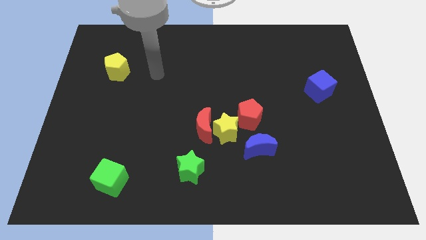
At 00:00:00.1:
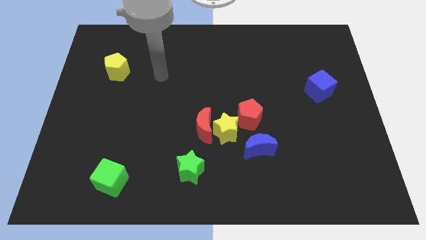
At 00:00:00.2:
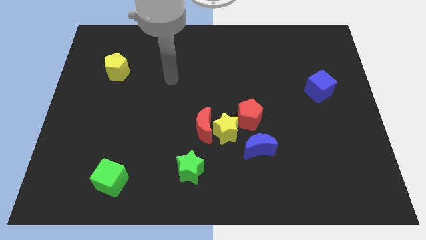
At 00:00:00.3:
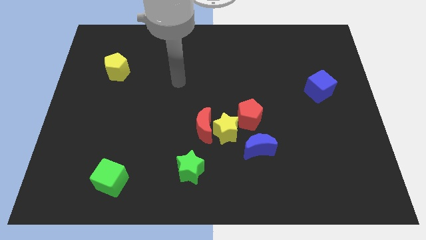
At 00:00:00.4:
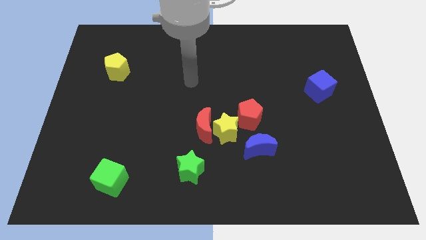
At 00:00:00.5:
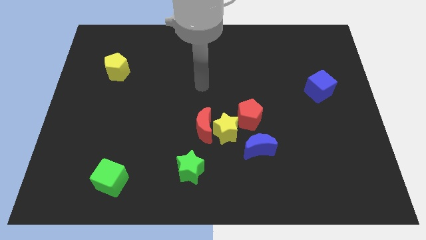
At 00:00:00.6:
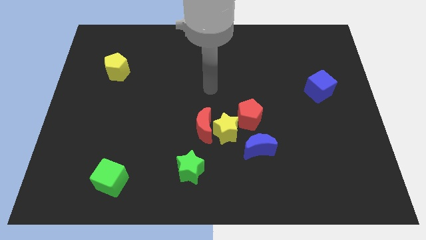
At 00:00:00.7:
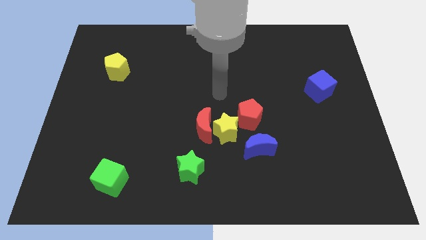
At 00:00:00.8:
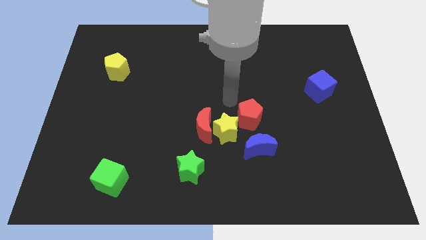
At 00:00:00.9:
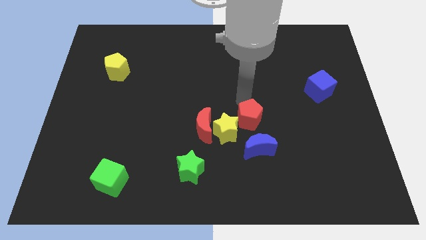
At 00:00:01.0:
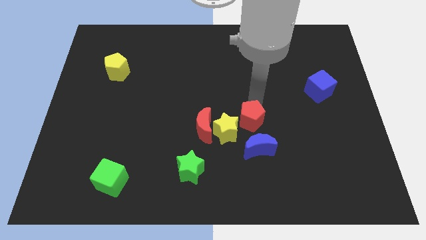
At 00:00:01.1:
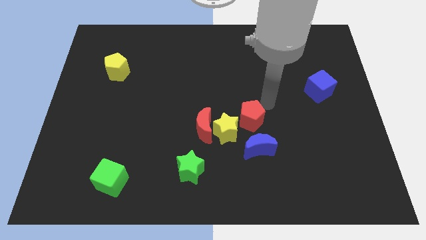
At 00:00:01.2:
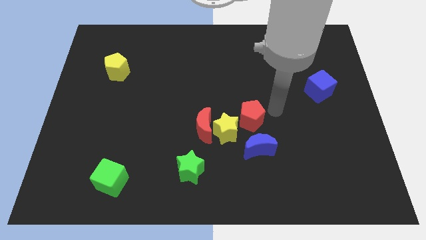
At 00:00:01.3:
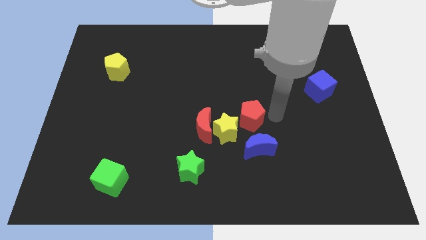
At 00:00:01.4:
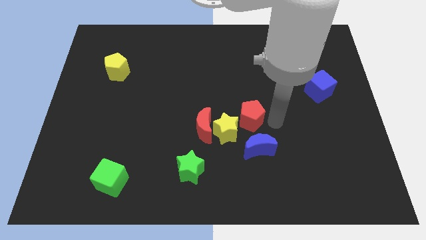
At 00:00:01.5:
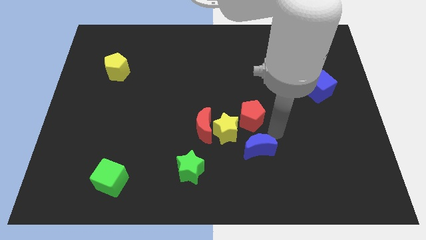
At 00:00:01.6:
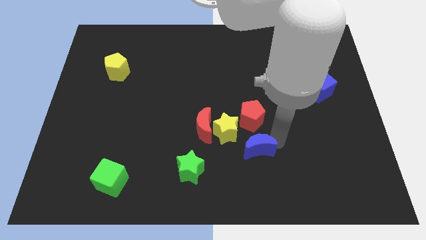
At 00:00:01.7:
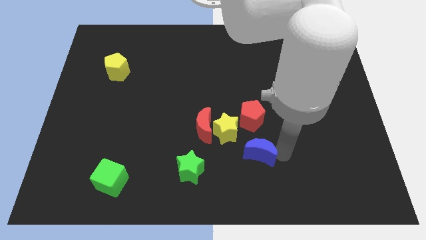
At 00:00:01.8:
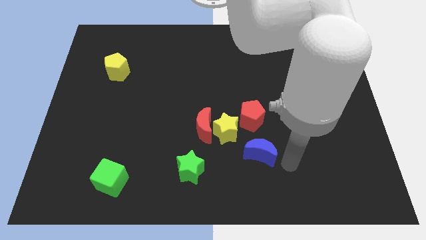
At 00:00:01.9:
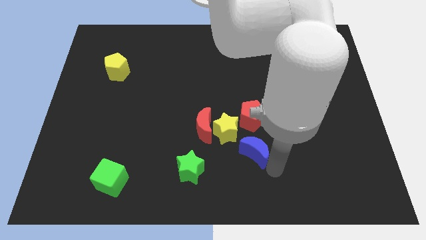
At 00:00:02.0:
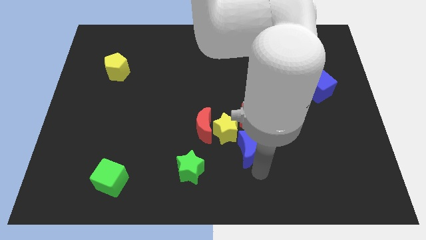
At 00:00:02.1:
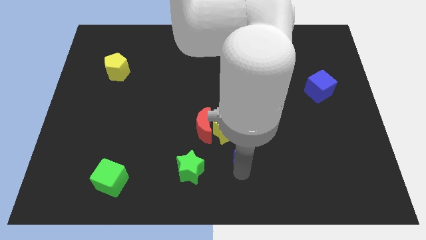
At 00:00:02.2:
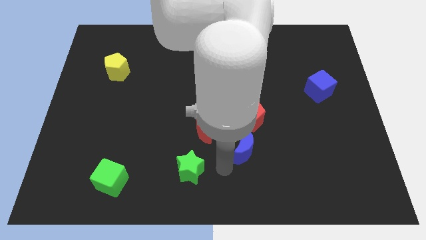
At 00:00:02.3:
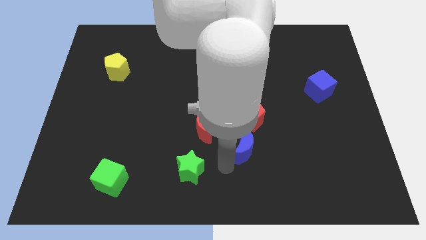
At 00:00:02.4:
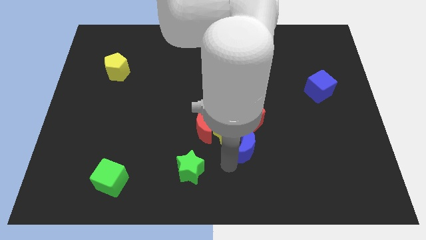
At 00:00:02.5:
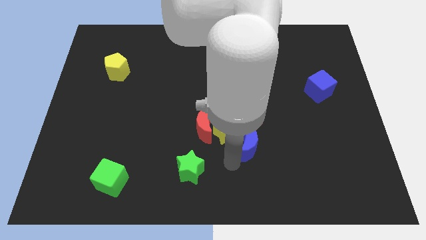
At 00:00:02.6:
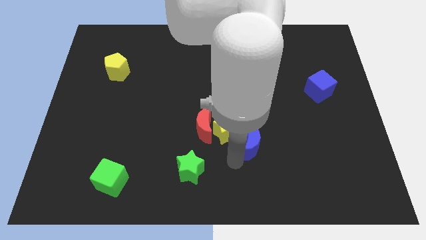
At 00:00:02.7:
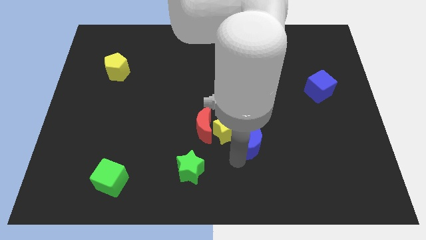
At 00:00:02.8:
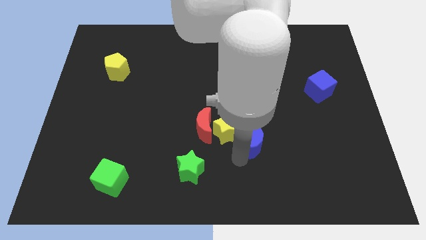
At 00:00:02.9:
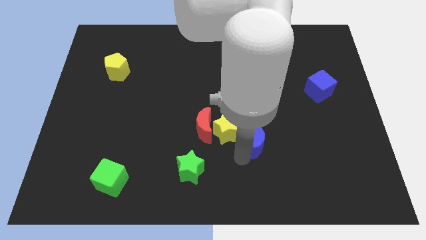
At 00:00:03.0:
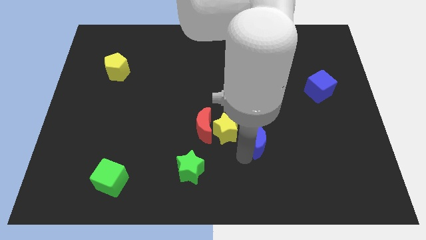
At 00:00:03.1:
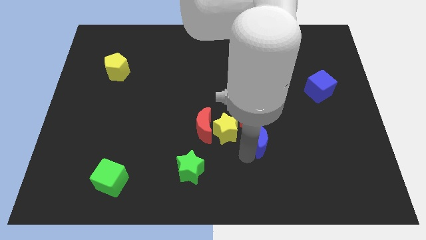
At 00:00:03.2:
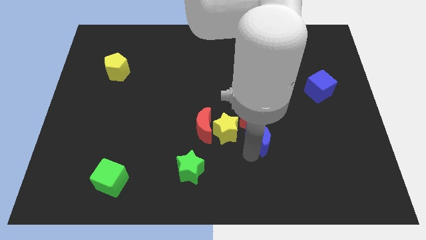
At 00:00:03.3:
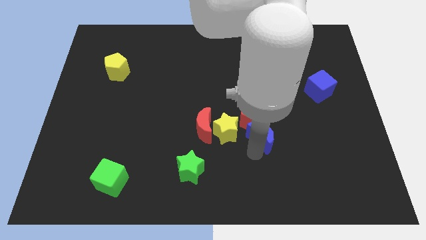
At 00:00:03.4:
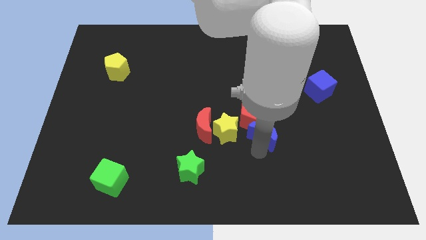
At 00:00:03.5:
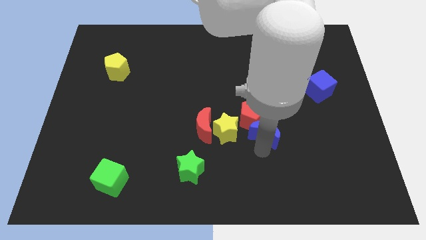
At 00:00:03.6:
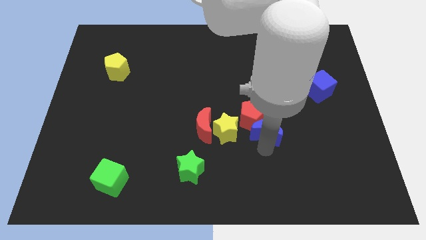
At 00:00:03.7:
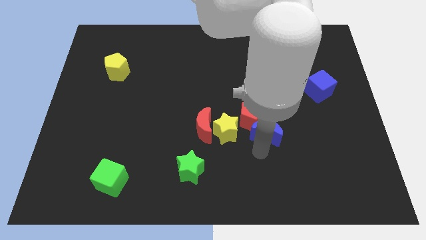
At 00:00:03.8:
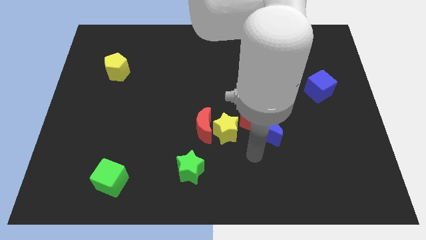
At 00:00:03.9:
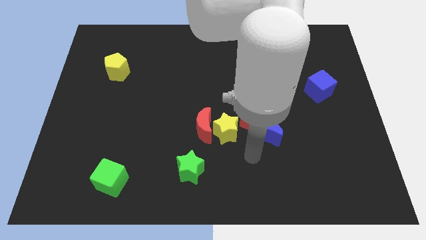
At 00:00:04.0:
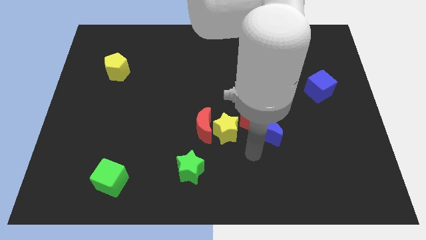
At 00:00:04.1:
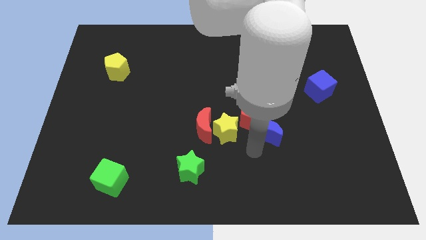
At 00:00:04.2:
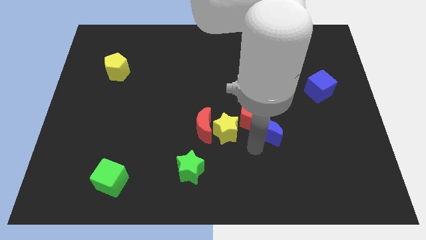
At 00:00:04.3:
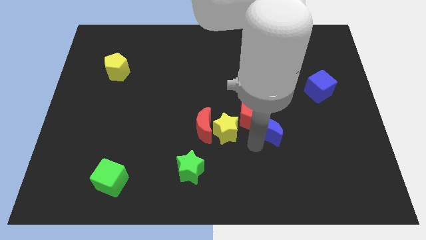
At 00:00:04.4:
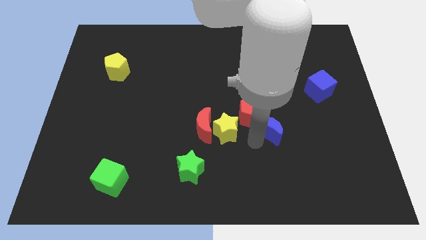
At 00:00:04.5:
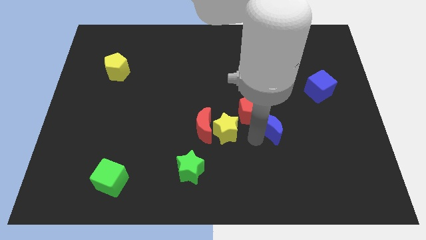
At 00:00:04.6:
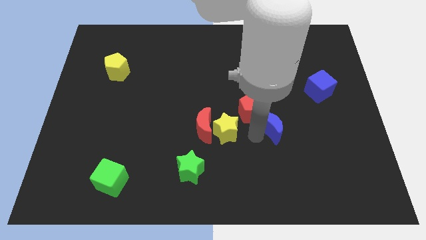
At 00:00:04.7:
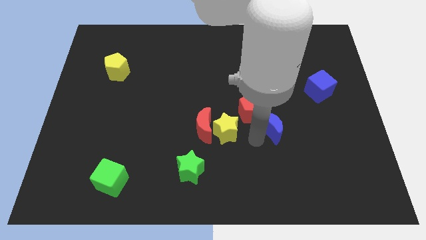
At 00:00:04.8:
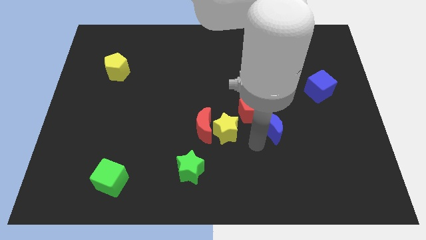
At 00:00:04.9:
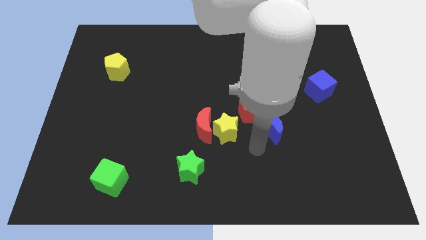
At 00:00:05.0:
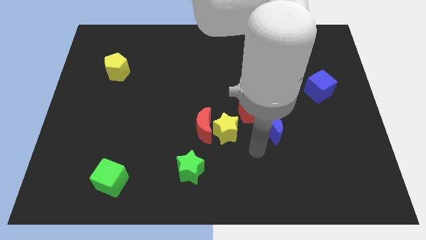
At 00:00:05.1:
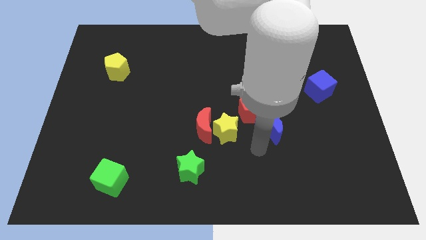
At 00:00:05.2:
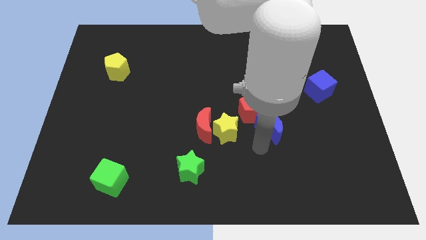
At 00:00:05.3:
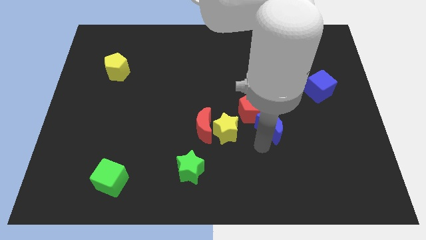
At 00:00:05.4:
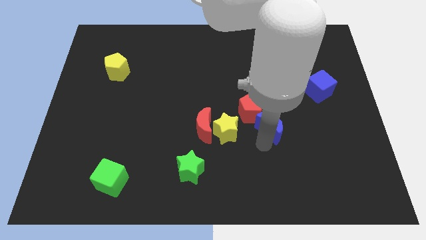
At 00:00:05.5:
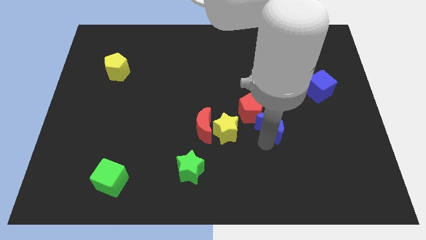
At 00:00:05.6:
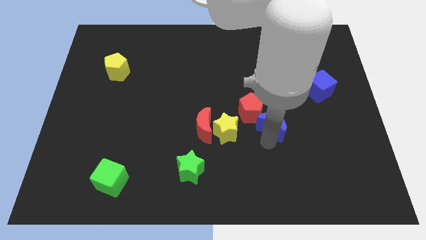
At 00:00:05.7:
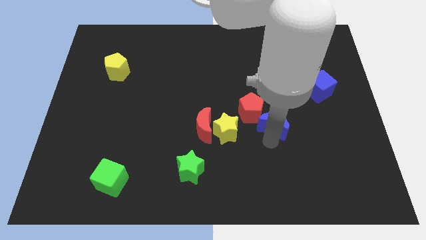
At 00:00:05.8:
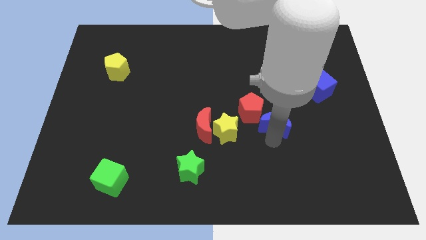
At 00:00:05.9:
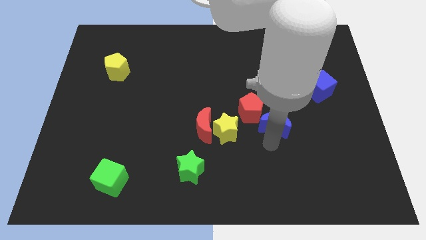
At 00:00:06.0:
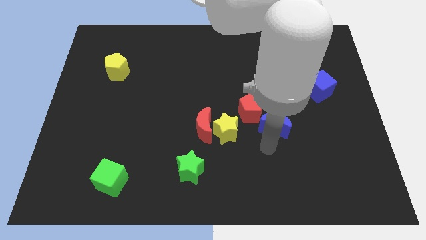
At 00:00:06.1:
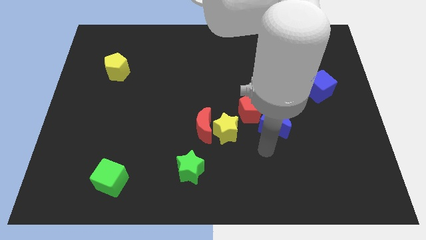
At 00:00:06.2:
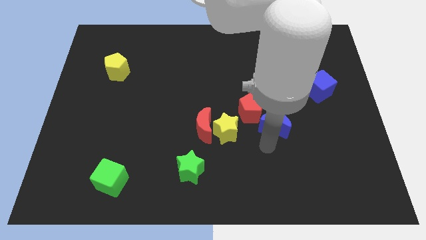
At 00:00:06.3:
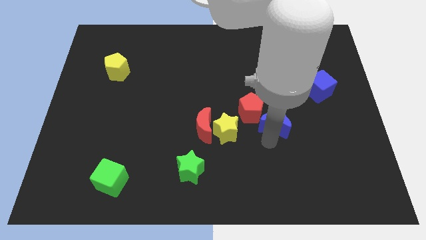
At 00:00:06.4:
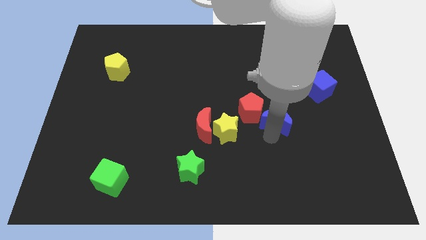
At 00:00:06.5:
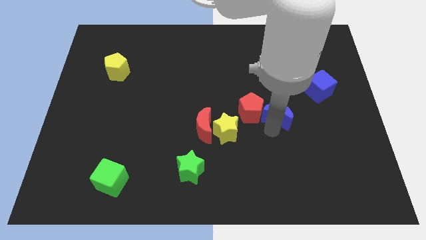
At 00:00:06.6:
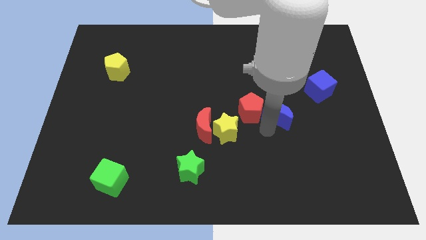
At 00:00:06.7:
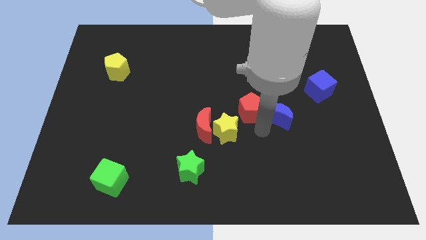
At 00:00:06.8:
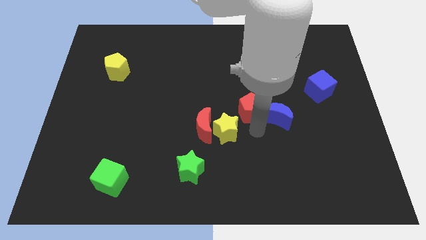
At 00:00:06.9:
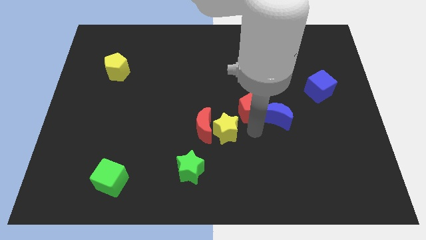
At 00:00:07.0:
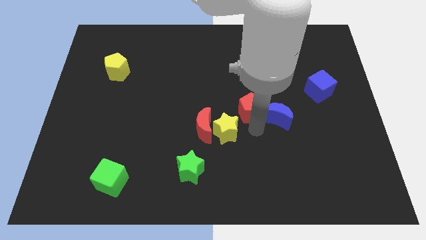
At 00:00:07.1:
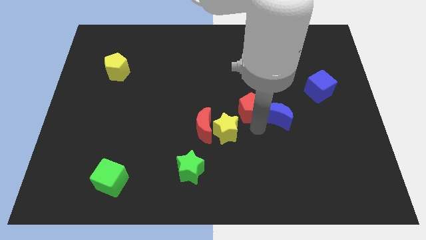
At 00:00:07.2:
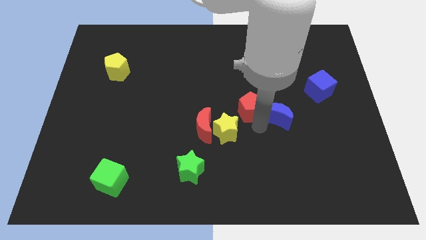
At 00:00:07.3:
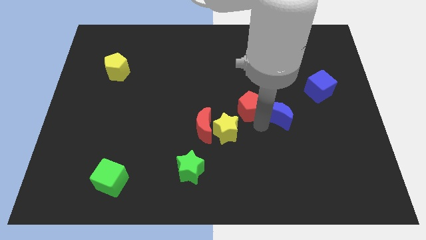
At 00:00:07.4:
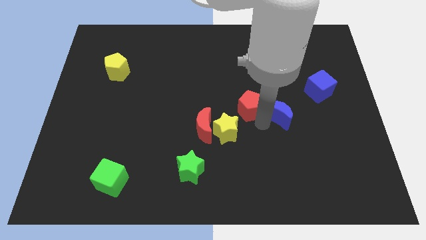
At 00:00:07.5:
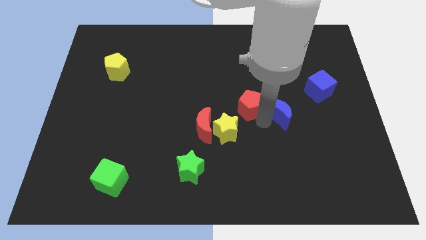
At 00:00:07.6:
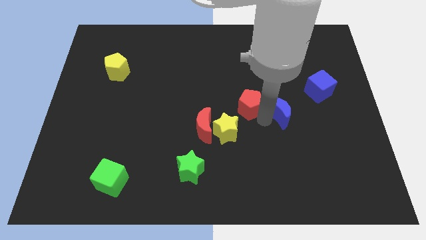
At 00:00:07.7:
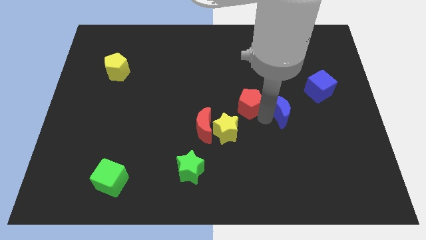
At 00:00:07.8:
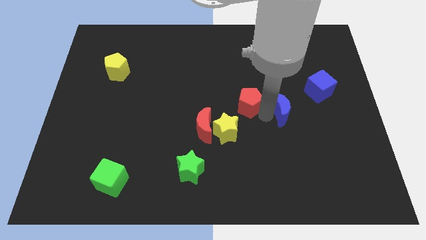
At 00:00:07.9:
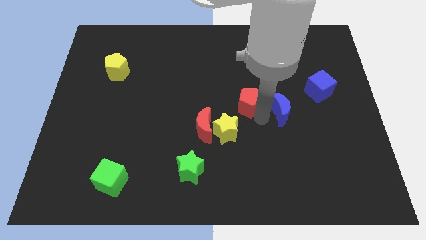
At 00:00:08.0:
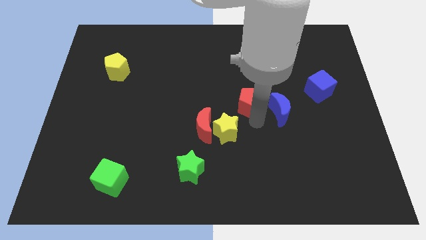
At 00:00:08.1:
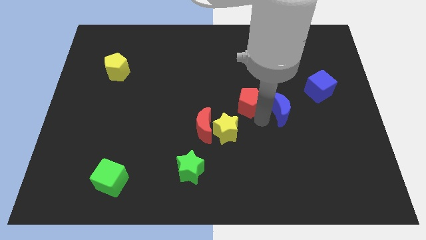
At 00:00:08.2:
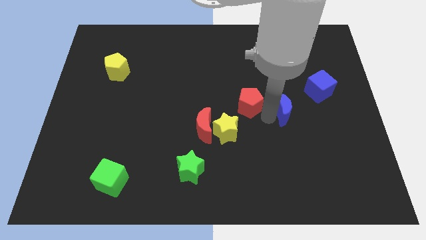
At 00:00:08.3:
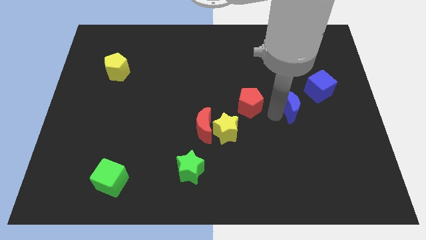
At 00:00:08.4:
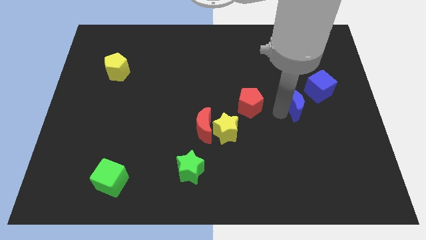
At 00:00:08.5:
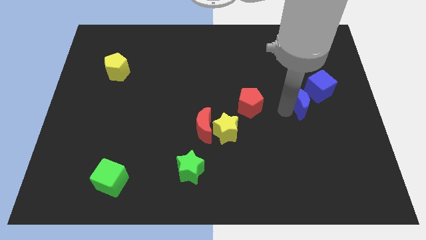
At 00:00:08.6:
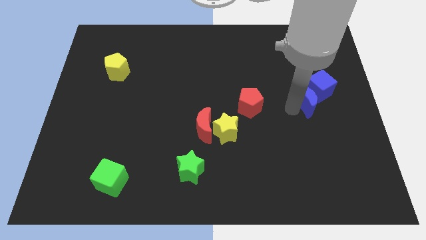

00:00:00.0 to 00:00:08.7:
move the blue moon towards the blue cube
